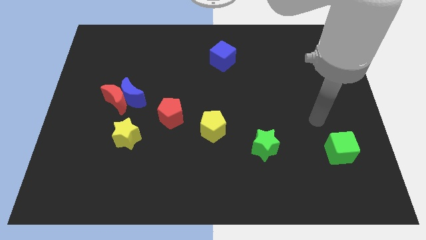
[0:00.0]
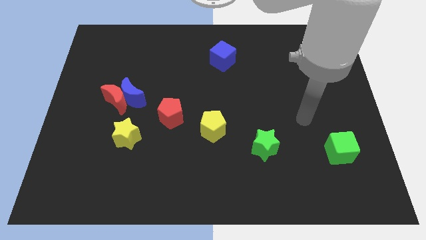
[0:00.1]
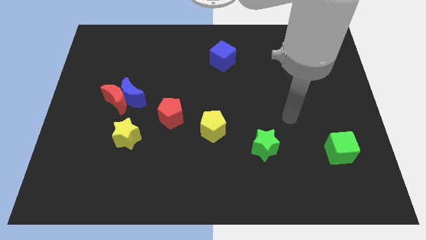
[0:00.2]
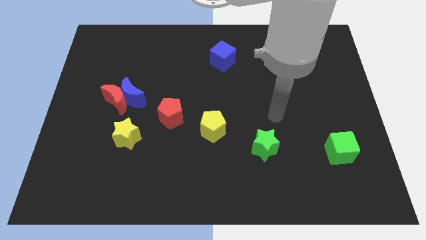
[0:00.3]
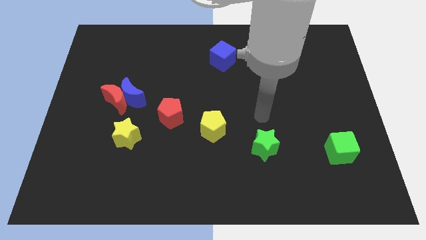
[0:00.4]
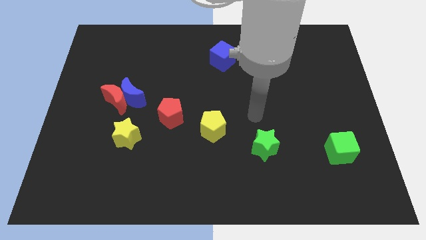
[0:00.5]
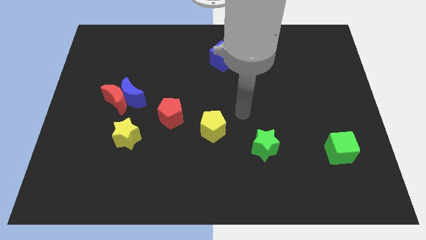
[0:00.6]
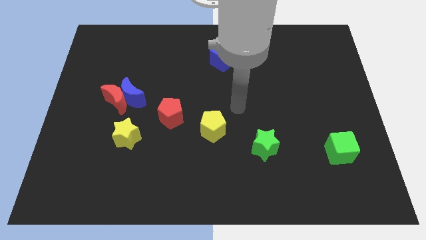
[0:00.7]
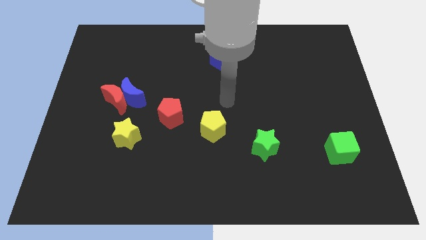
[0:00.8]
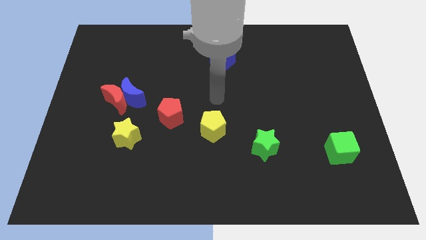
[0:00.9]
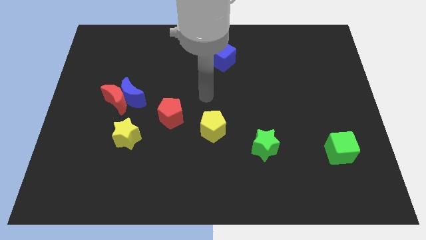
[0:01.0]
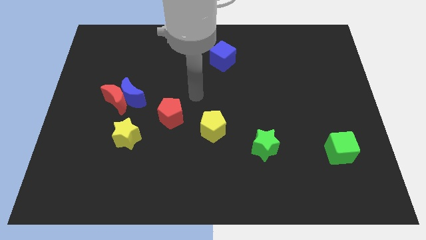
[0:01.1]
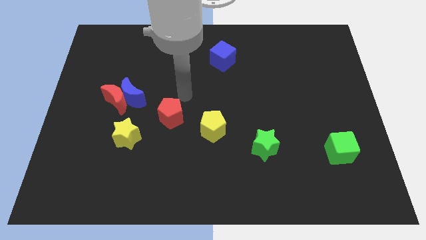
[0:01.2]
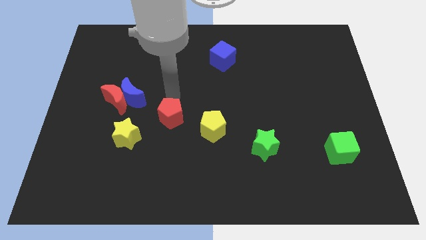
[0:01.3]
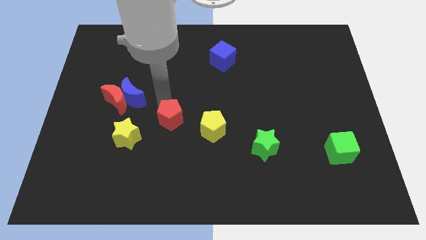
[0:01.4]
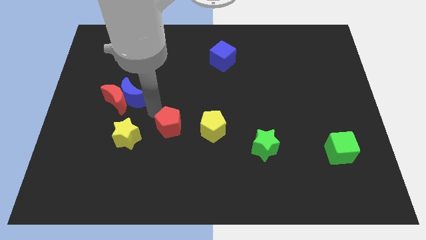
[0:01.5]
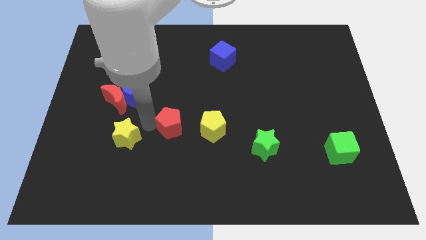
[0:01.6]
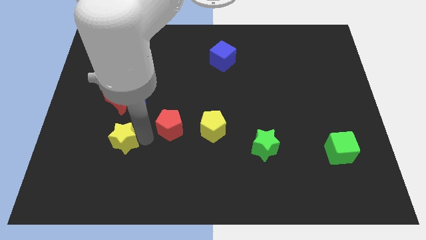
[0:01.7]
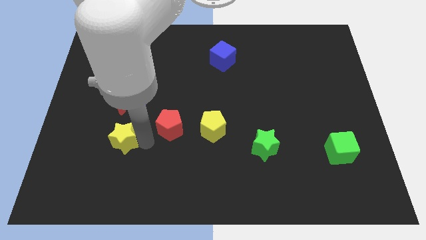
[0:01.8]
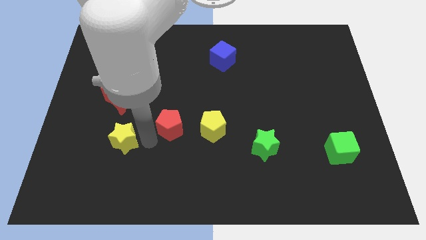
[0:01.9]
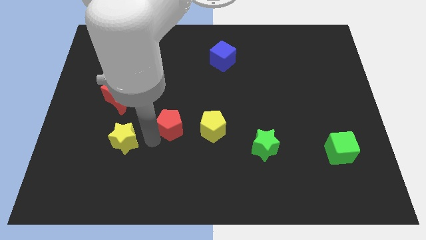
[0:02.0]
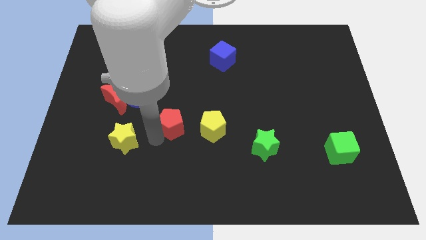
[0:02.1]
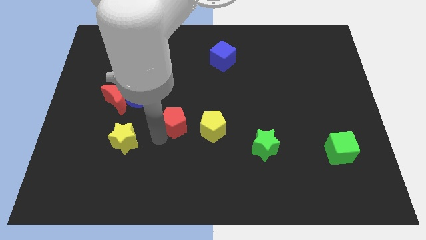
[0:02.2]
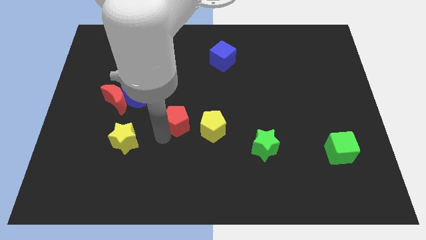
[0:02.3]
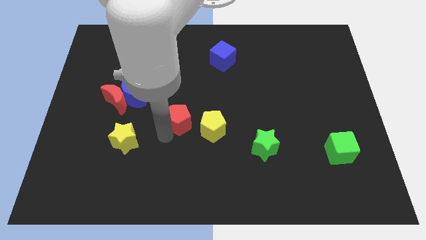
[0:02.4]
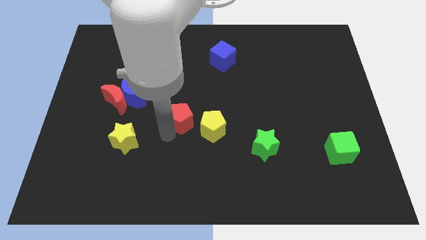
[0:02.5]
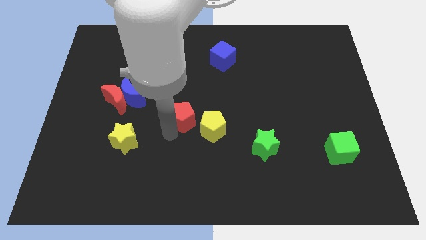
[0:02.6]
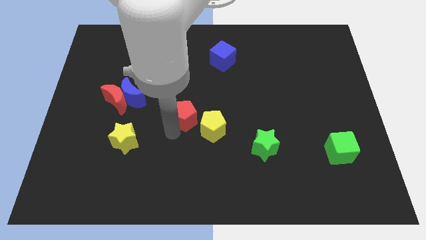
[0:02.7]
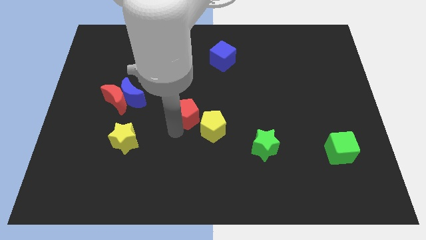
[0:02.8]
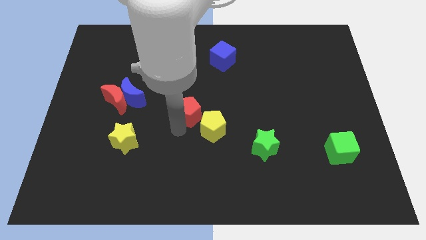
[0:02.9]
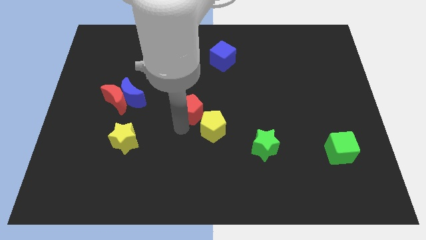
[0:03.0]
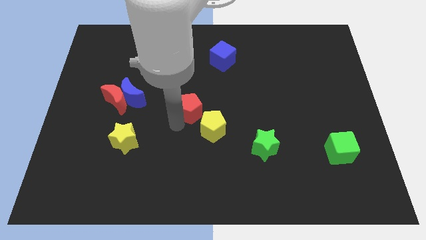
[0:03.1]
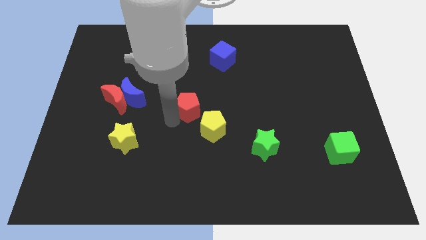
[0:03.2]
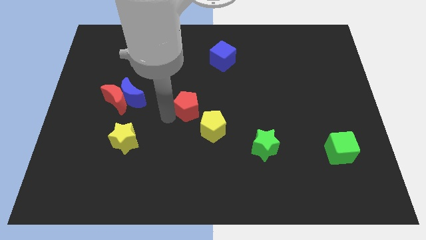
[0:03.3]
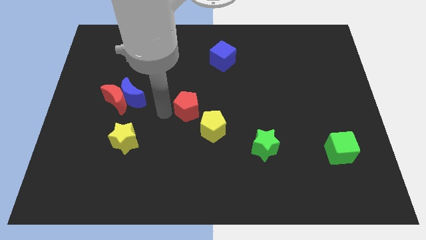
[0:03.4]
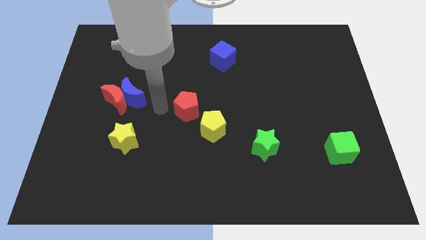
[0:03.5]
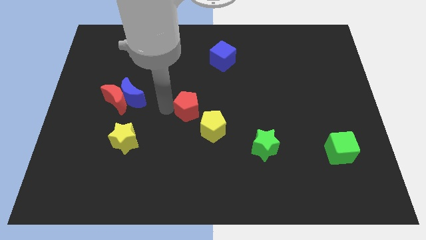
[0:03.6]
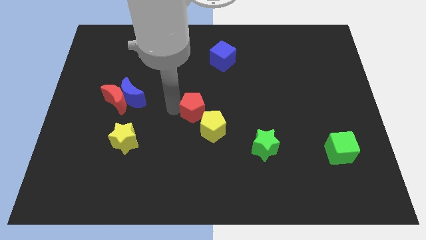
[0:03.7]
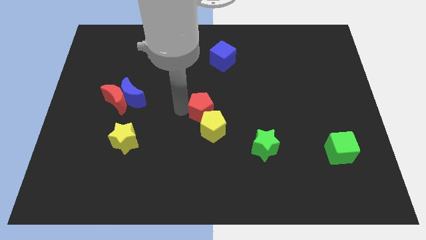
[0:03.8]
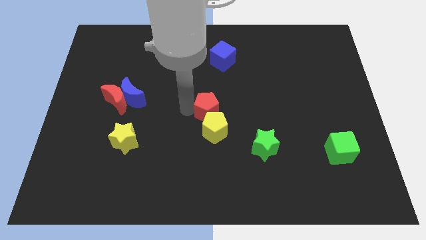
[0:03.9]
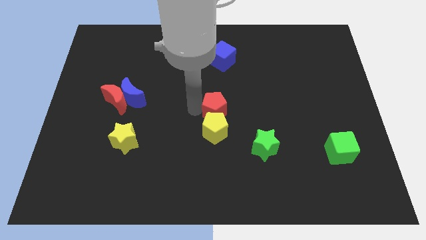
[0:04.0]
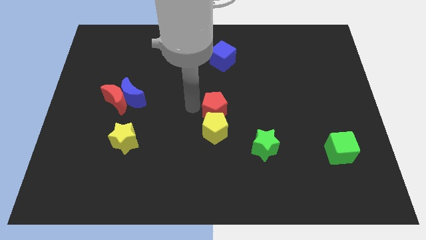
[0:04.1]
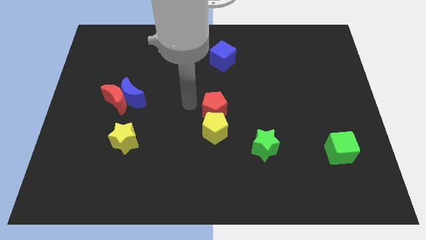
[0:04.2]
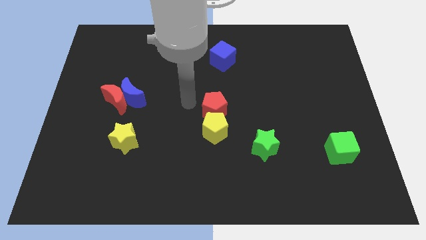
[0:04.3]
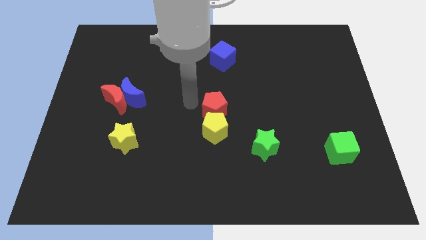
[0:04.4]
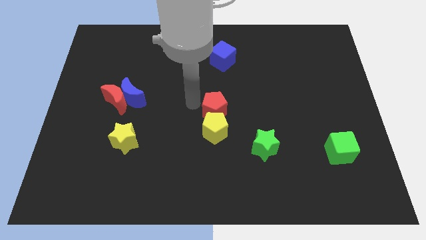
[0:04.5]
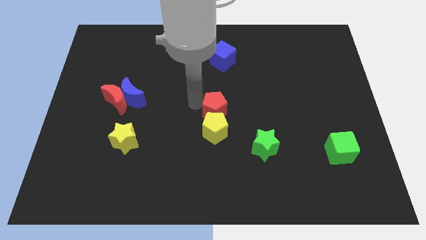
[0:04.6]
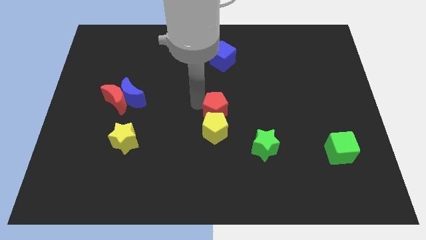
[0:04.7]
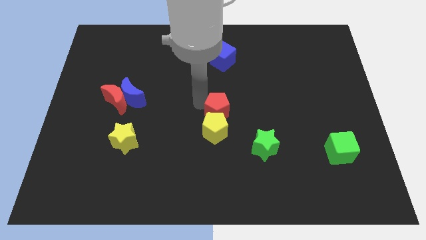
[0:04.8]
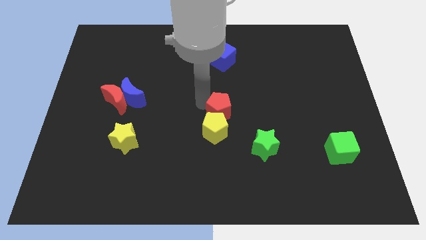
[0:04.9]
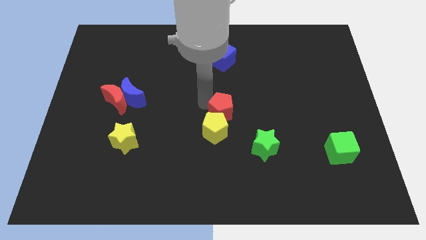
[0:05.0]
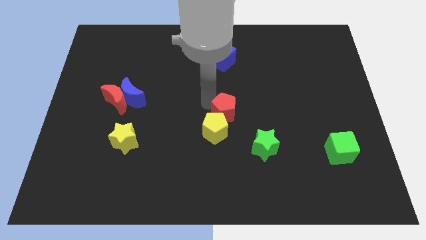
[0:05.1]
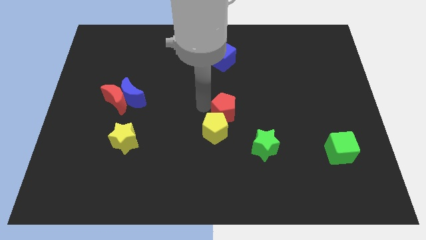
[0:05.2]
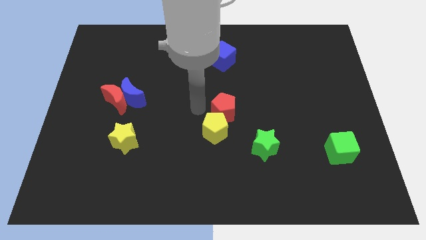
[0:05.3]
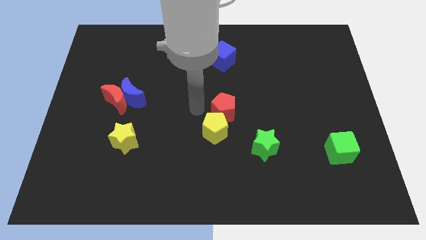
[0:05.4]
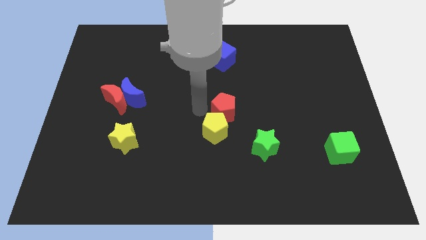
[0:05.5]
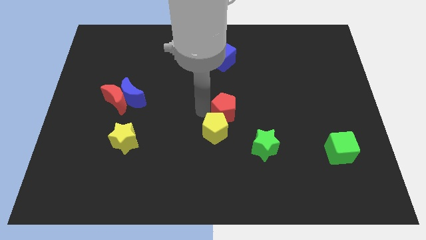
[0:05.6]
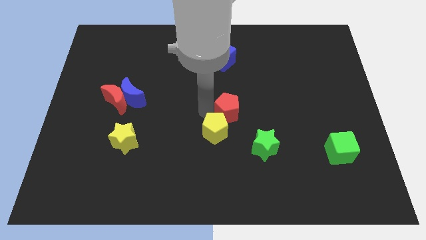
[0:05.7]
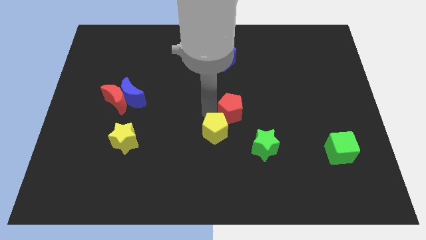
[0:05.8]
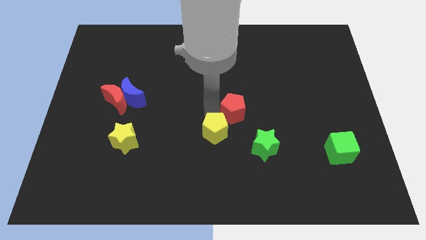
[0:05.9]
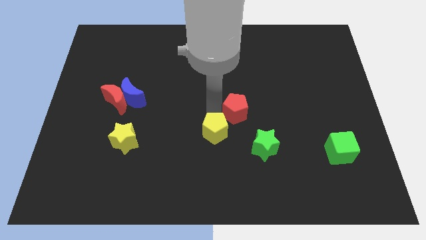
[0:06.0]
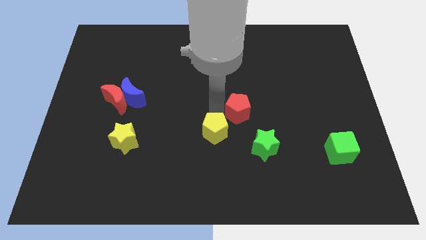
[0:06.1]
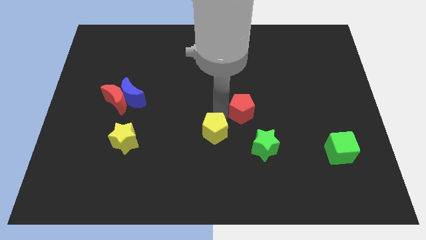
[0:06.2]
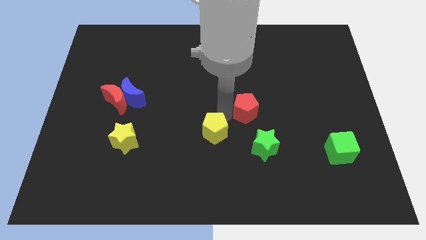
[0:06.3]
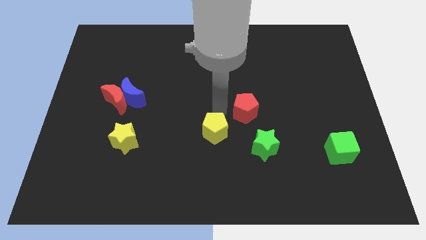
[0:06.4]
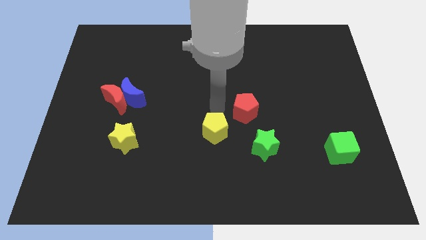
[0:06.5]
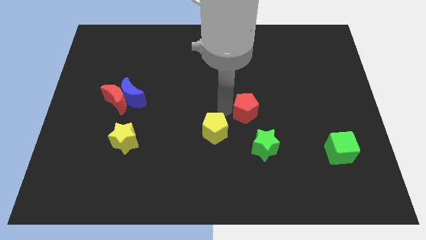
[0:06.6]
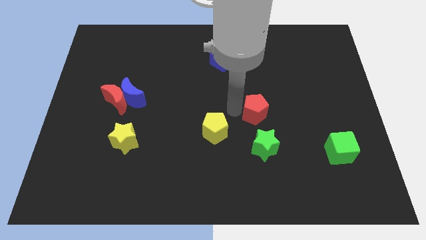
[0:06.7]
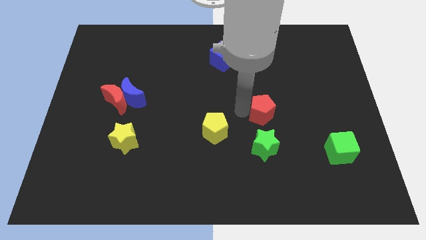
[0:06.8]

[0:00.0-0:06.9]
push the red pentagon to the right

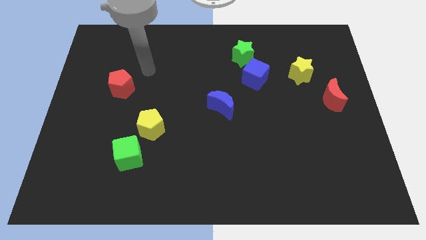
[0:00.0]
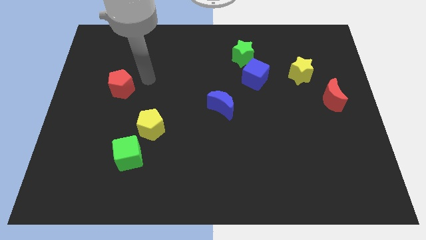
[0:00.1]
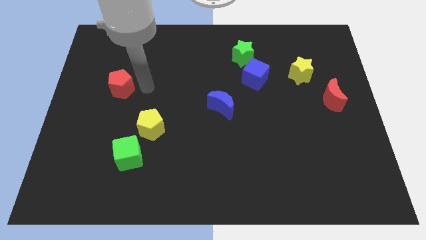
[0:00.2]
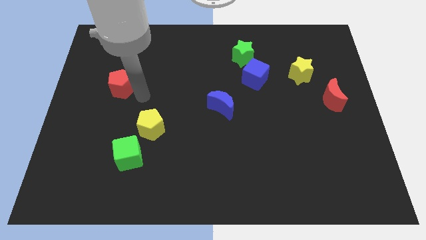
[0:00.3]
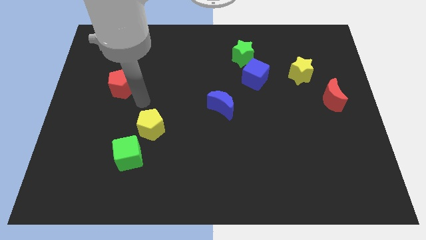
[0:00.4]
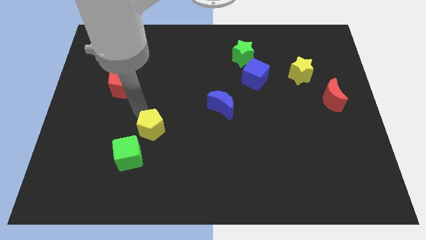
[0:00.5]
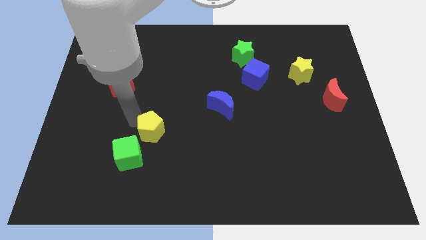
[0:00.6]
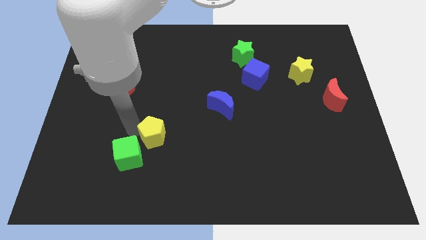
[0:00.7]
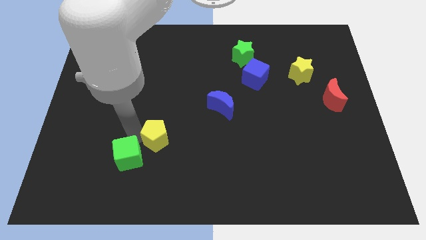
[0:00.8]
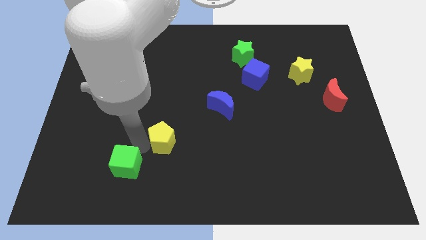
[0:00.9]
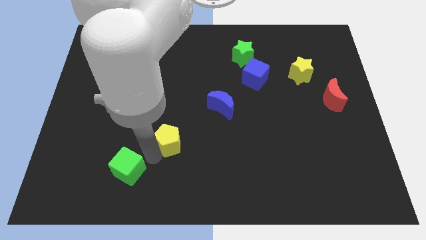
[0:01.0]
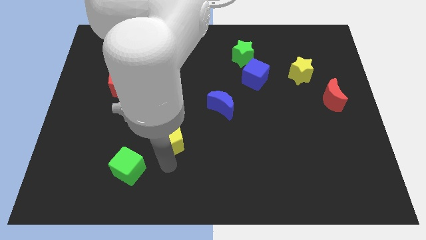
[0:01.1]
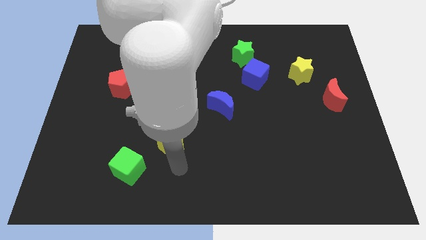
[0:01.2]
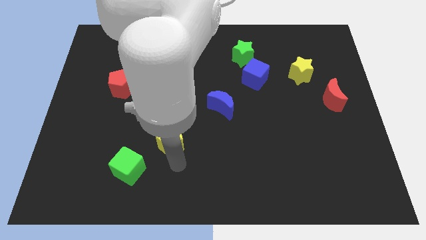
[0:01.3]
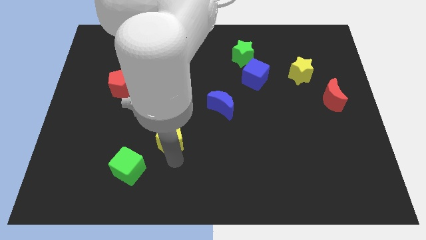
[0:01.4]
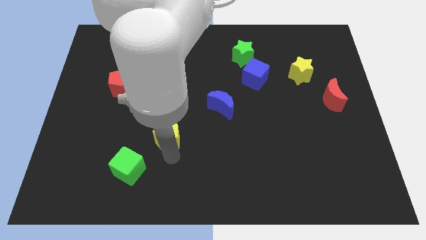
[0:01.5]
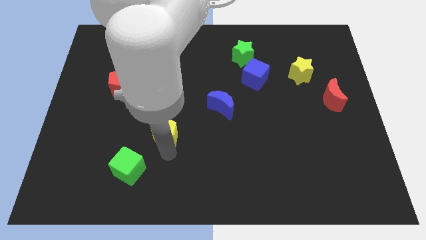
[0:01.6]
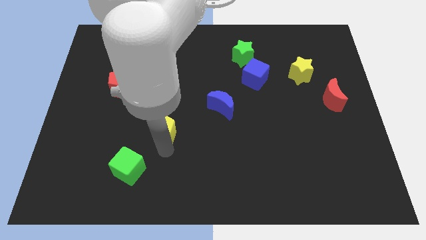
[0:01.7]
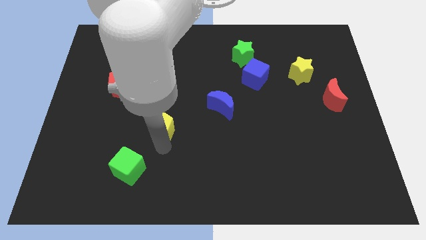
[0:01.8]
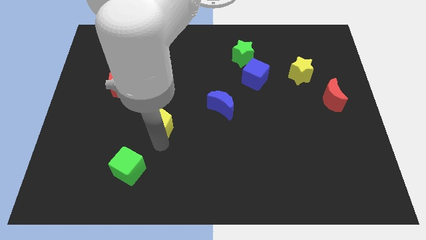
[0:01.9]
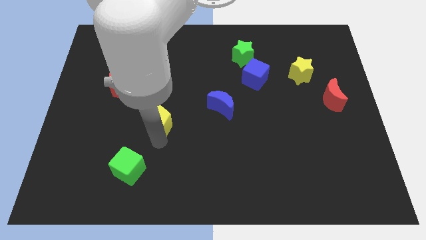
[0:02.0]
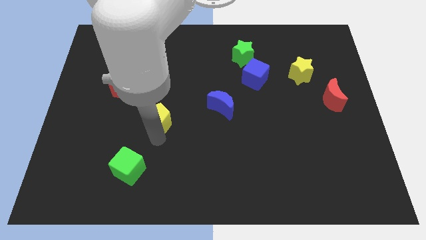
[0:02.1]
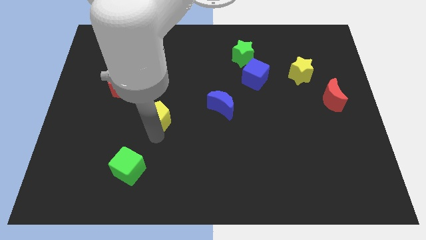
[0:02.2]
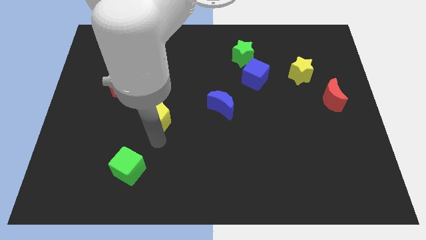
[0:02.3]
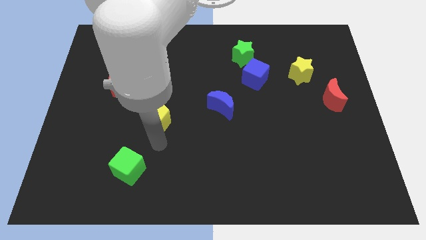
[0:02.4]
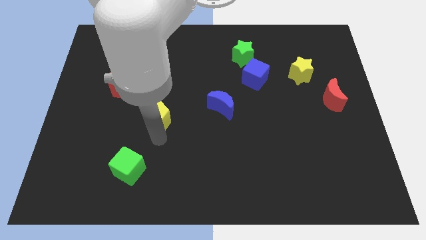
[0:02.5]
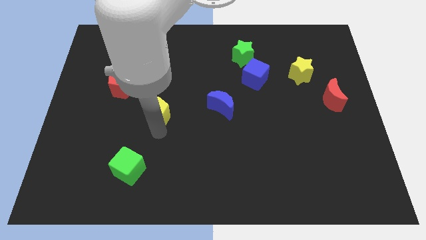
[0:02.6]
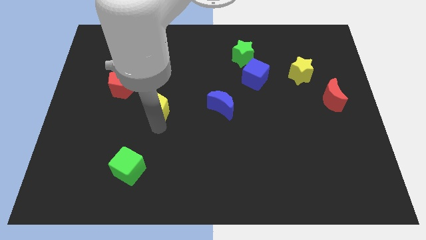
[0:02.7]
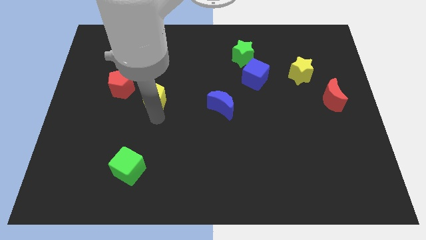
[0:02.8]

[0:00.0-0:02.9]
slightly move the yellow pentagon upwards
